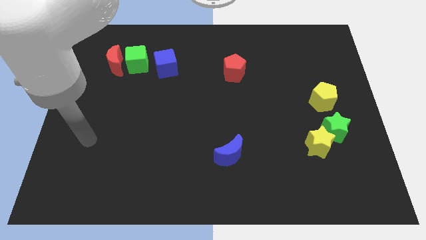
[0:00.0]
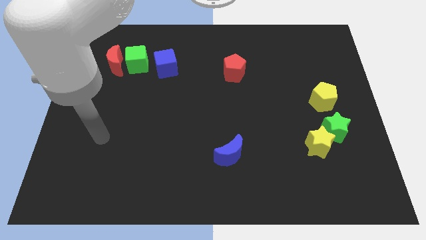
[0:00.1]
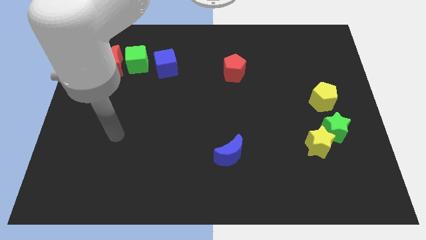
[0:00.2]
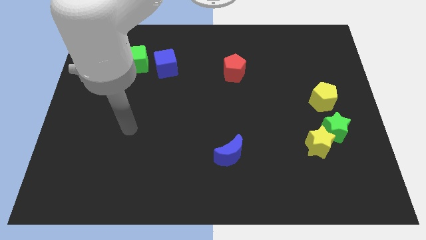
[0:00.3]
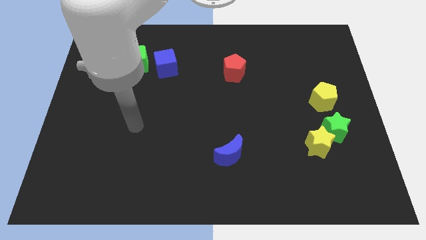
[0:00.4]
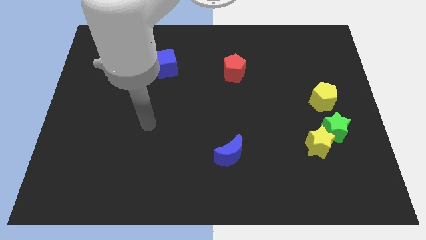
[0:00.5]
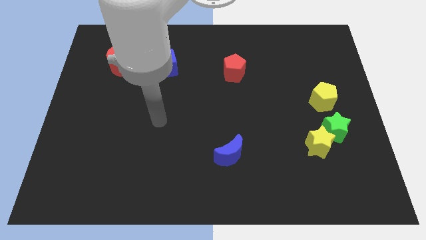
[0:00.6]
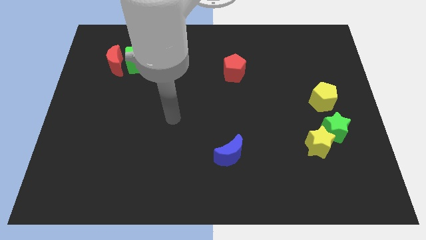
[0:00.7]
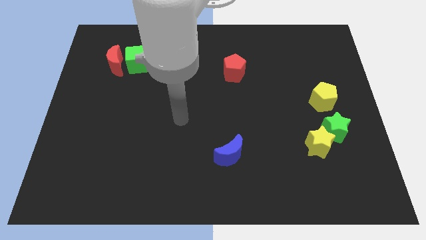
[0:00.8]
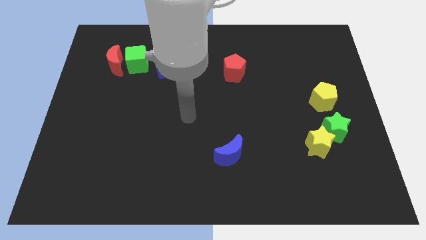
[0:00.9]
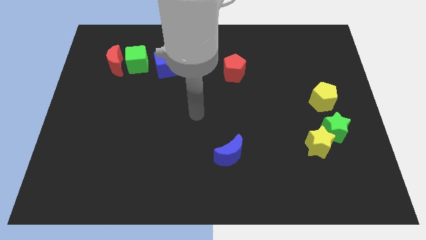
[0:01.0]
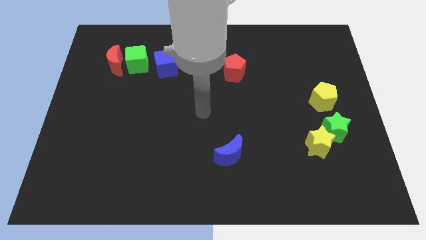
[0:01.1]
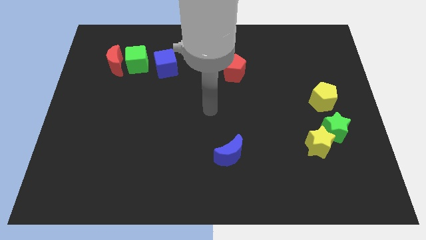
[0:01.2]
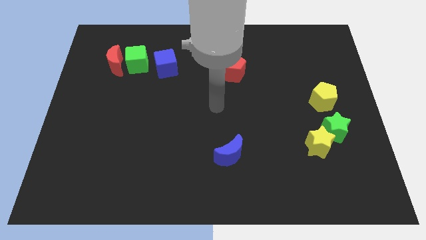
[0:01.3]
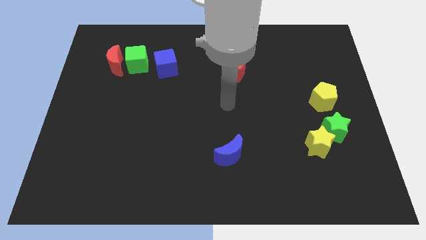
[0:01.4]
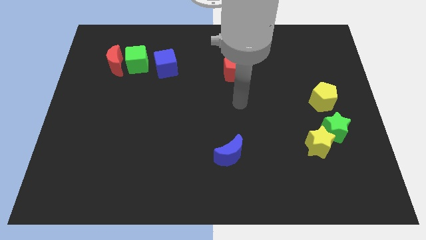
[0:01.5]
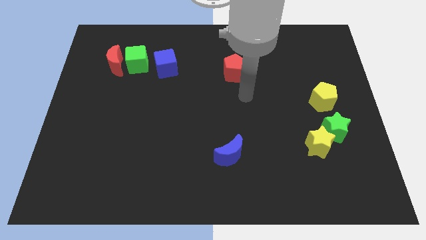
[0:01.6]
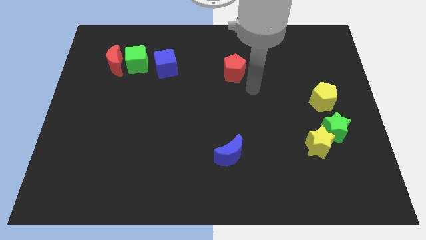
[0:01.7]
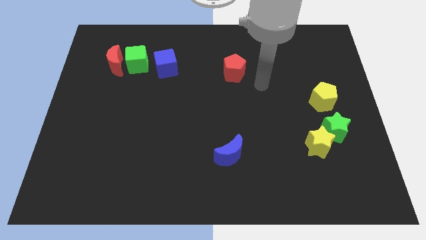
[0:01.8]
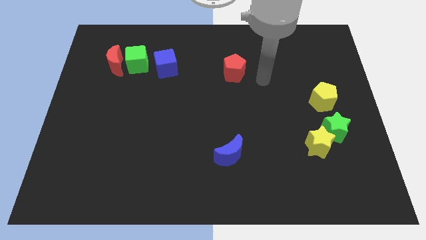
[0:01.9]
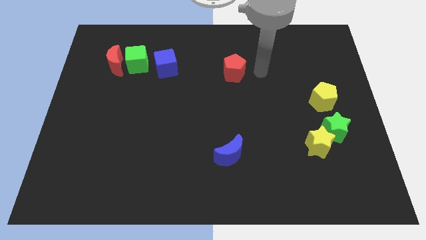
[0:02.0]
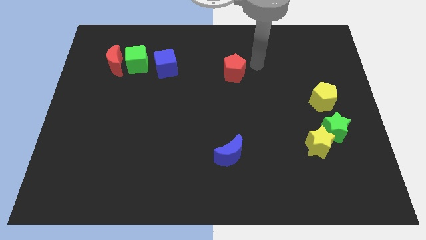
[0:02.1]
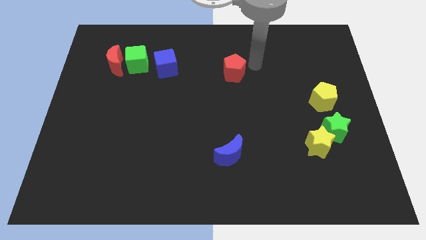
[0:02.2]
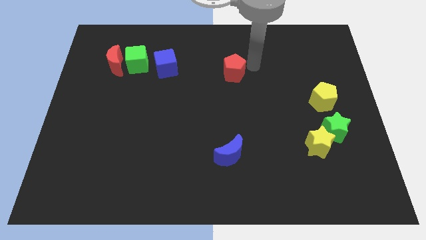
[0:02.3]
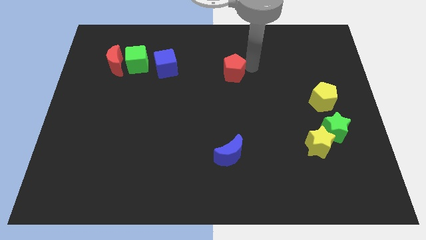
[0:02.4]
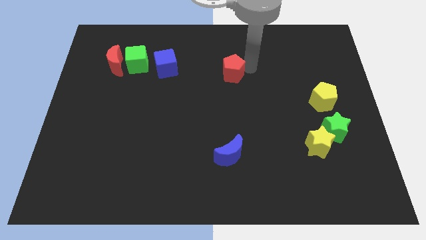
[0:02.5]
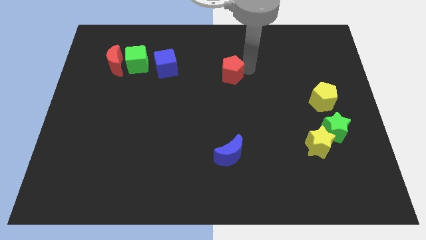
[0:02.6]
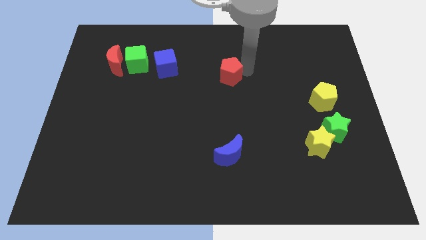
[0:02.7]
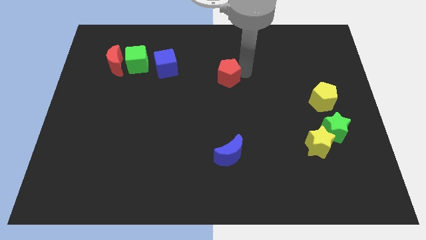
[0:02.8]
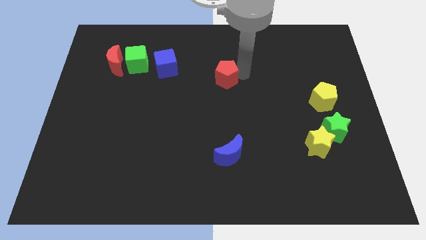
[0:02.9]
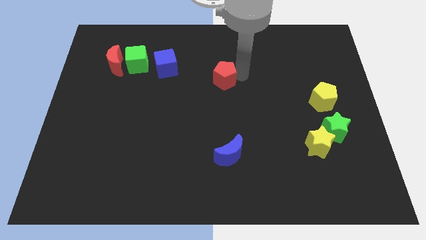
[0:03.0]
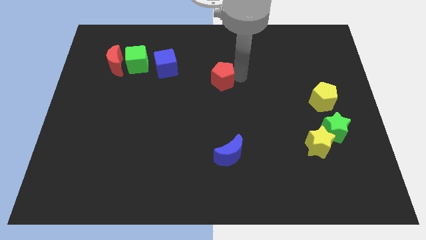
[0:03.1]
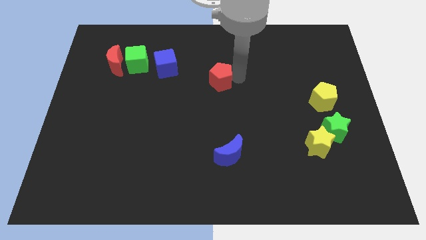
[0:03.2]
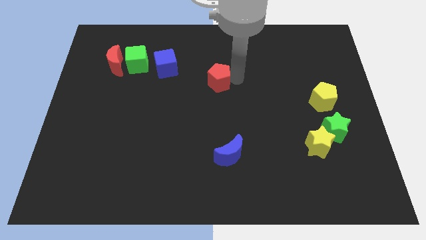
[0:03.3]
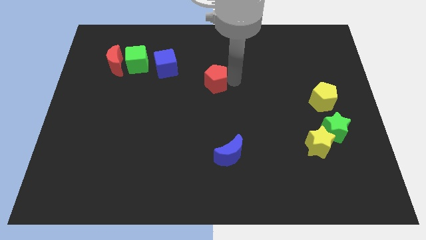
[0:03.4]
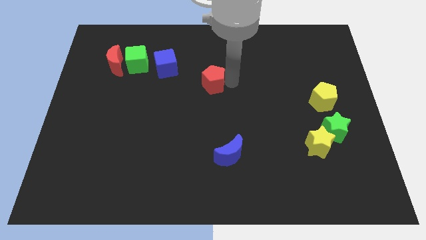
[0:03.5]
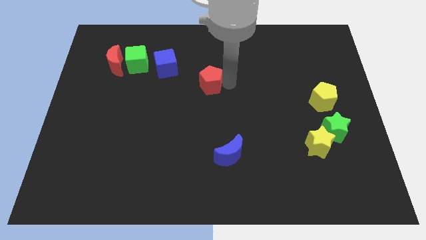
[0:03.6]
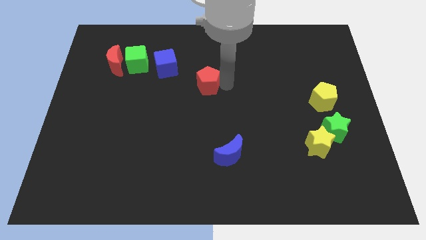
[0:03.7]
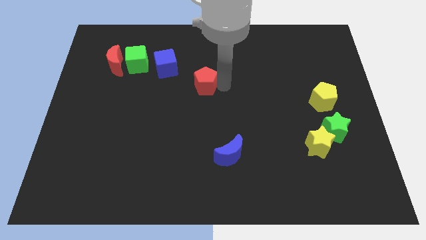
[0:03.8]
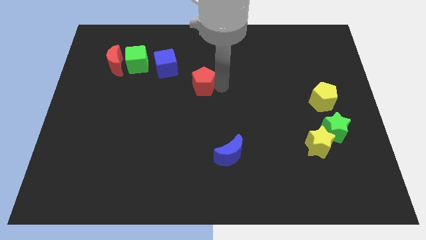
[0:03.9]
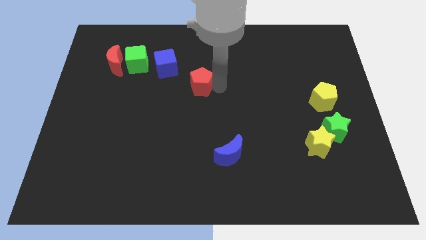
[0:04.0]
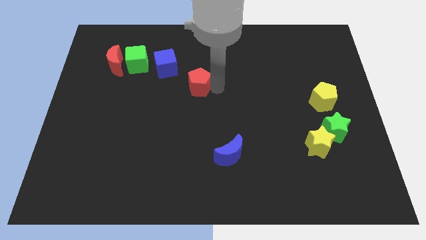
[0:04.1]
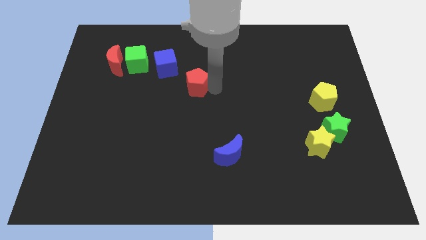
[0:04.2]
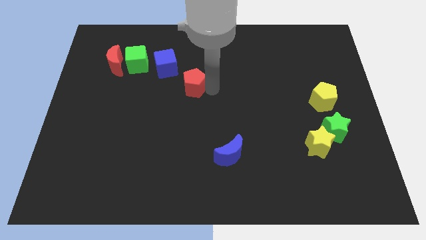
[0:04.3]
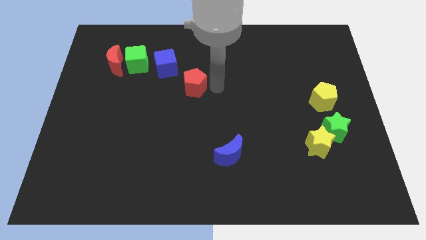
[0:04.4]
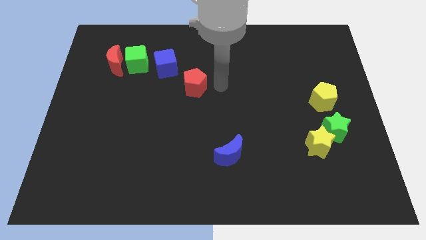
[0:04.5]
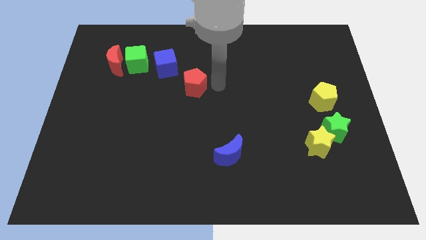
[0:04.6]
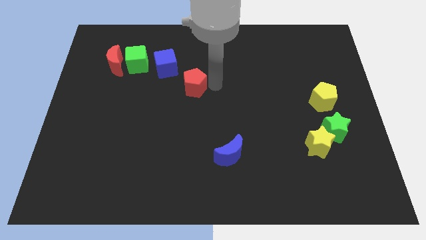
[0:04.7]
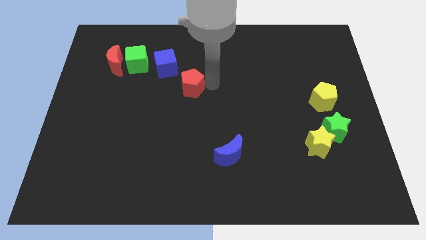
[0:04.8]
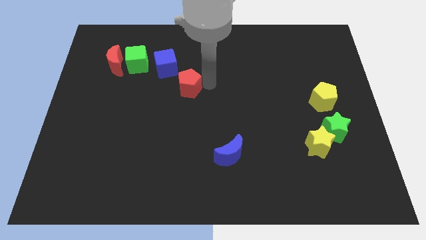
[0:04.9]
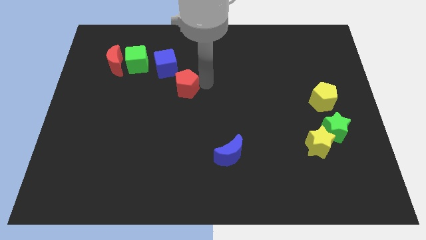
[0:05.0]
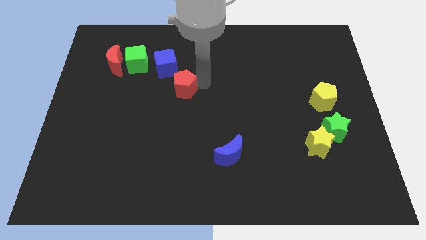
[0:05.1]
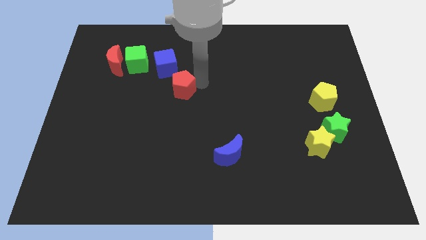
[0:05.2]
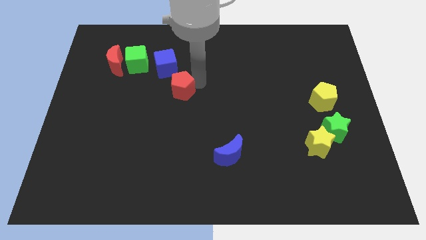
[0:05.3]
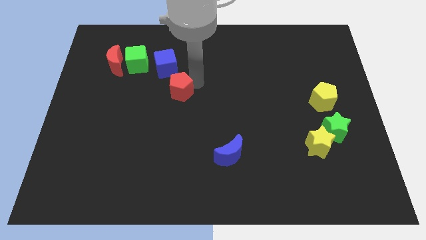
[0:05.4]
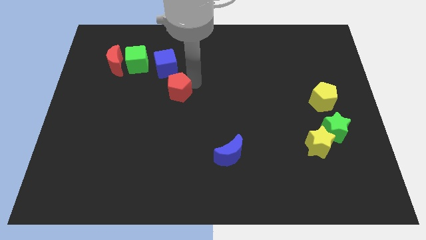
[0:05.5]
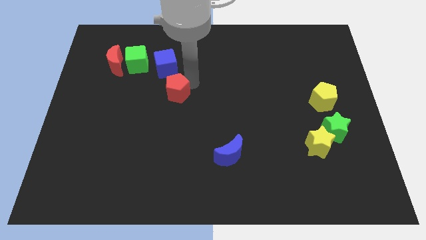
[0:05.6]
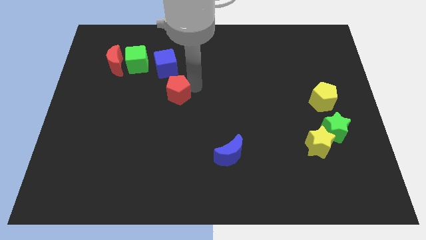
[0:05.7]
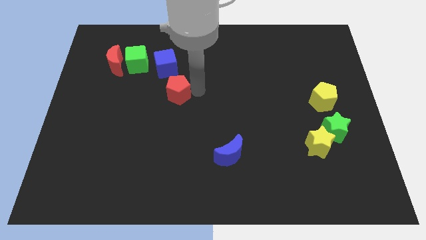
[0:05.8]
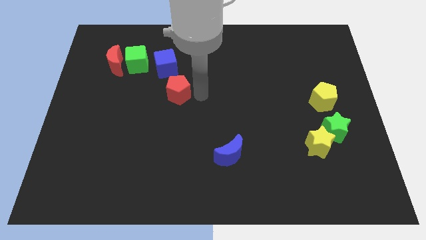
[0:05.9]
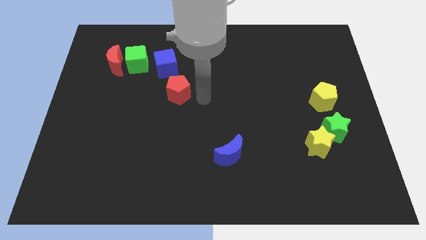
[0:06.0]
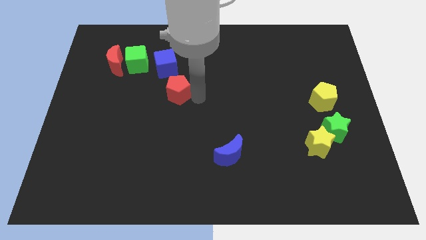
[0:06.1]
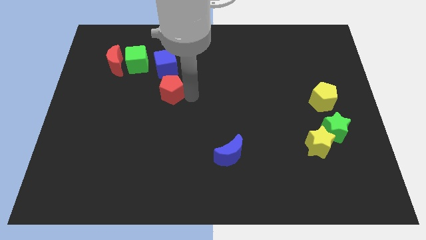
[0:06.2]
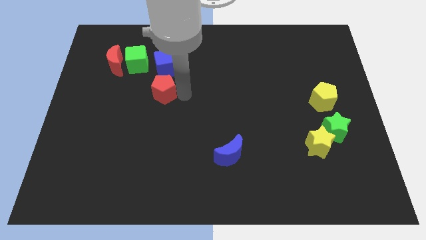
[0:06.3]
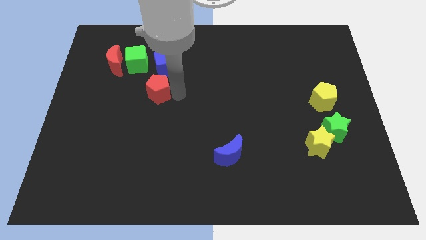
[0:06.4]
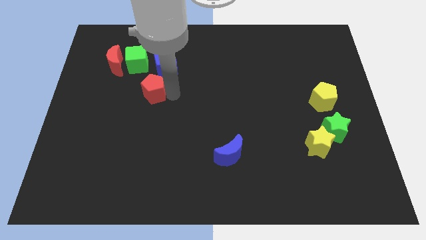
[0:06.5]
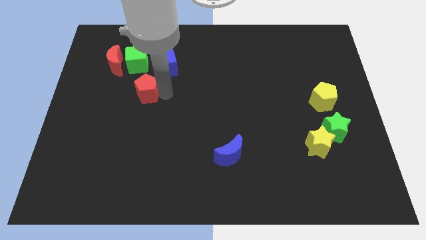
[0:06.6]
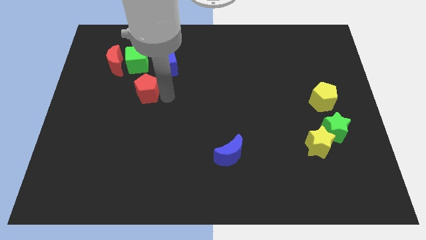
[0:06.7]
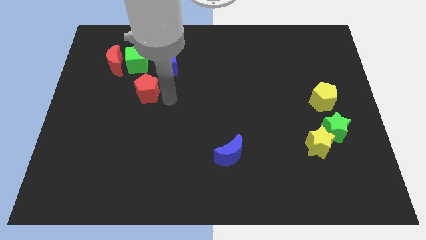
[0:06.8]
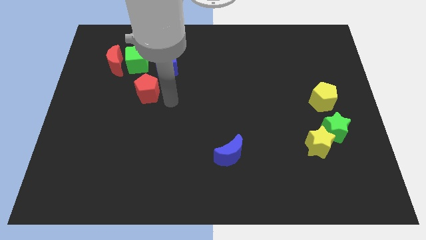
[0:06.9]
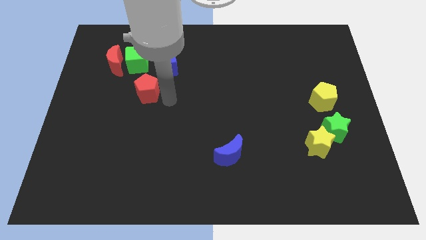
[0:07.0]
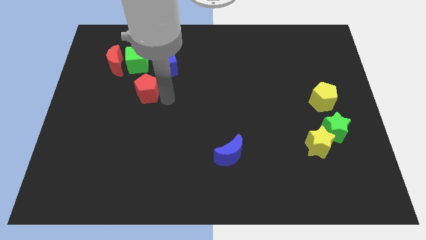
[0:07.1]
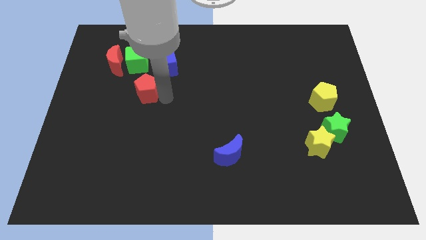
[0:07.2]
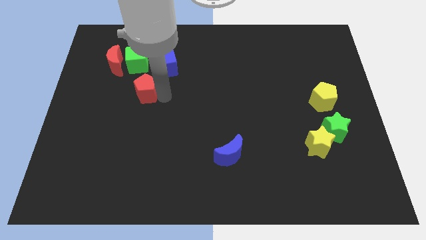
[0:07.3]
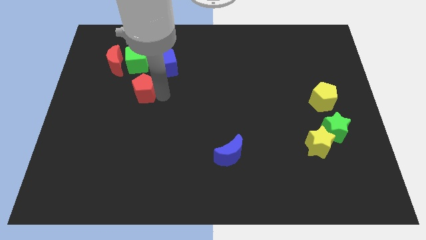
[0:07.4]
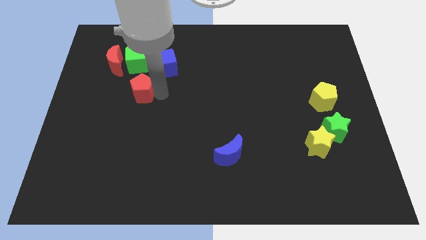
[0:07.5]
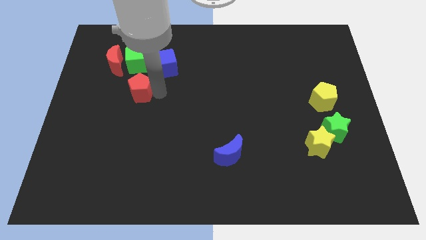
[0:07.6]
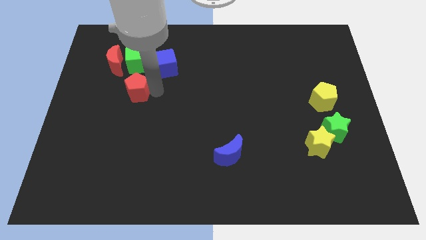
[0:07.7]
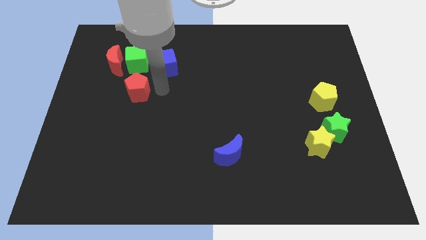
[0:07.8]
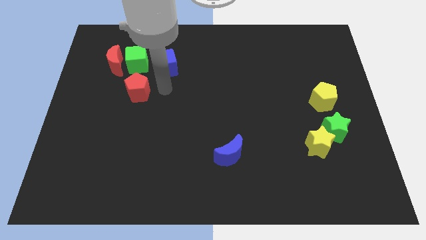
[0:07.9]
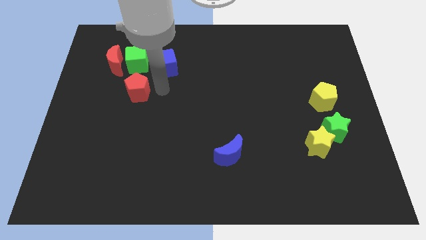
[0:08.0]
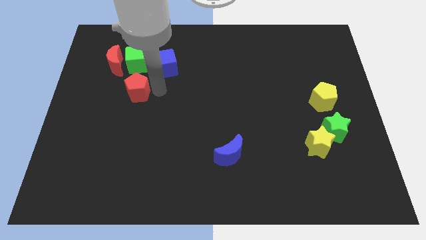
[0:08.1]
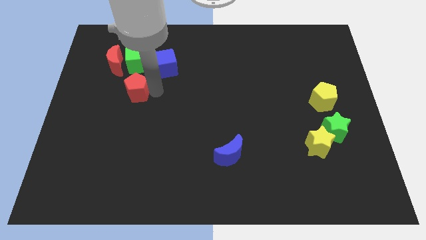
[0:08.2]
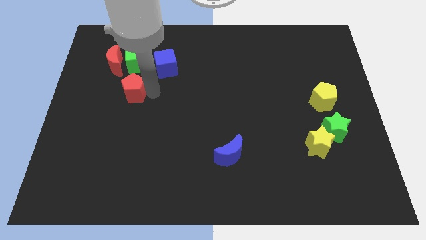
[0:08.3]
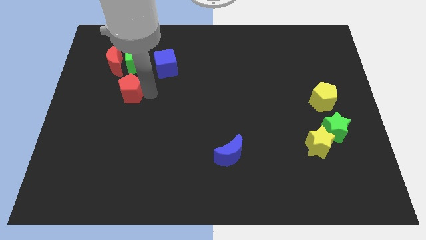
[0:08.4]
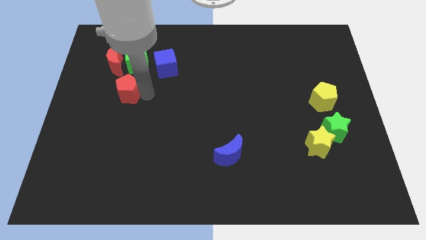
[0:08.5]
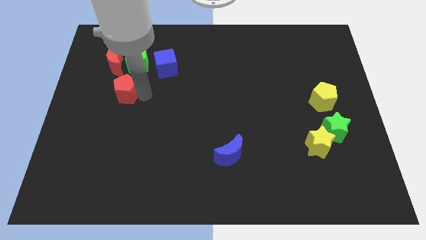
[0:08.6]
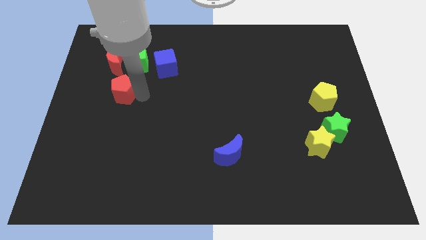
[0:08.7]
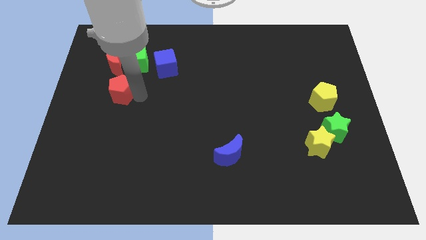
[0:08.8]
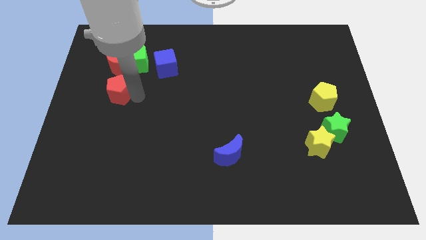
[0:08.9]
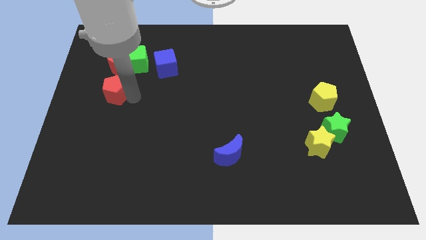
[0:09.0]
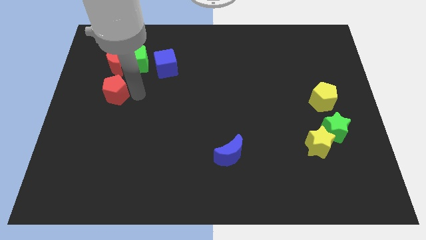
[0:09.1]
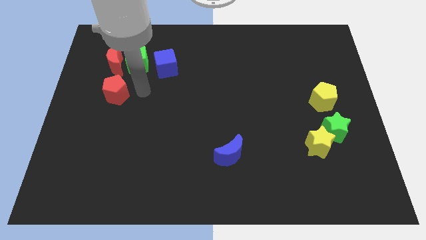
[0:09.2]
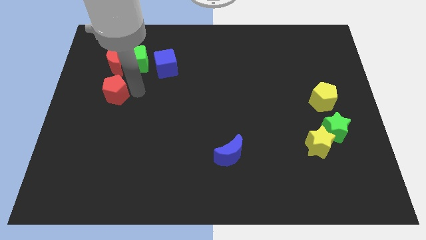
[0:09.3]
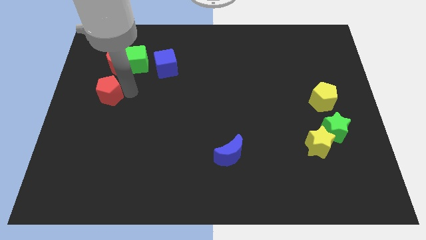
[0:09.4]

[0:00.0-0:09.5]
move the red pentagon to the center left
